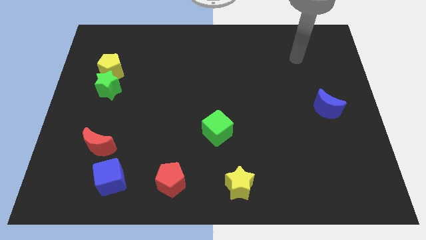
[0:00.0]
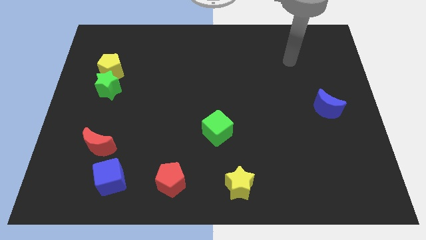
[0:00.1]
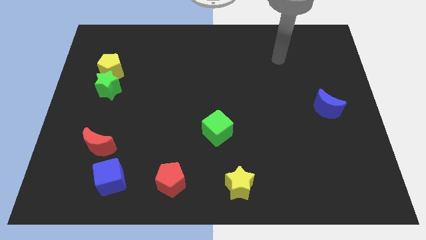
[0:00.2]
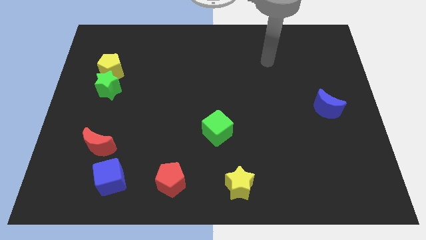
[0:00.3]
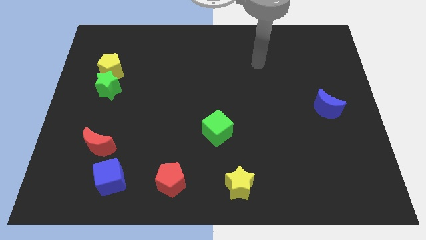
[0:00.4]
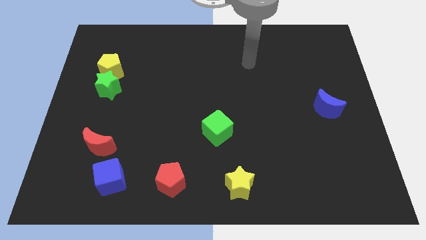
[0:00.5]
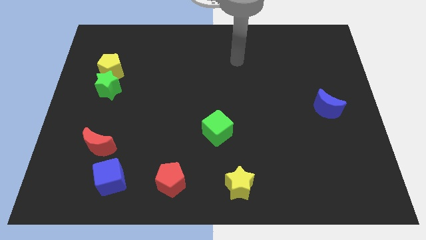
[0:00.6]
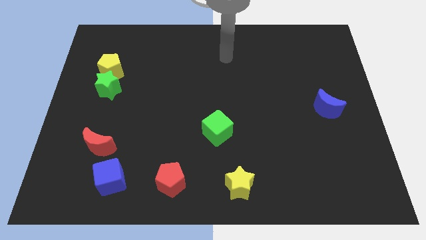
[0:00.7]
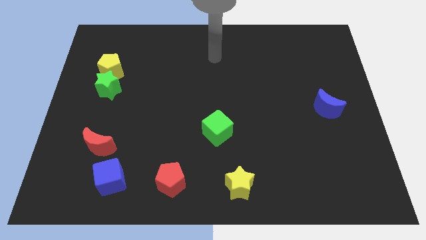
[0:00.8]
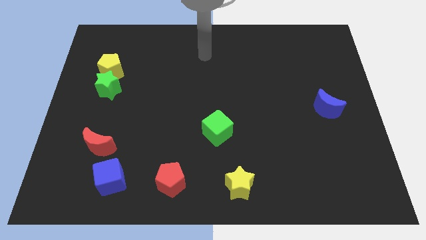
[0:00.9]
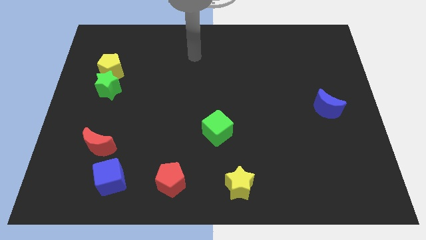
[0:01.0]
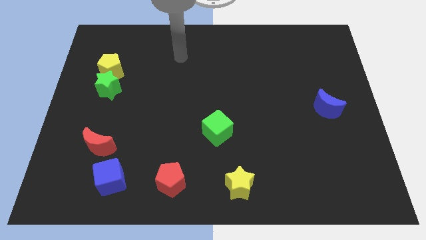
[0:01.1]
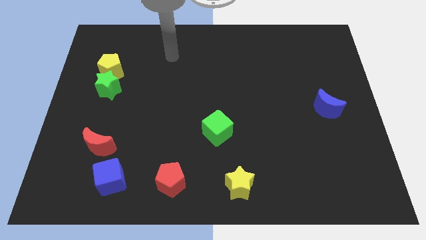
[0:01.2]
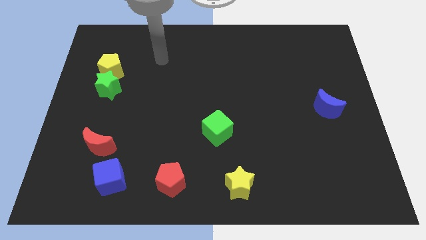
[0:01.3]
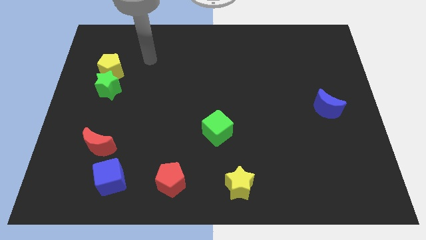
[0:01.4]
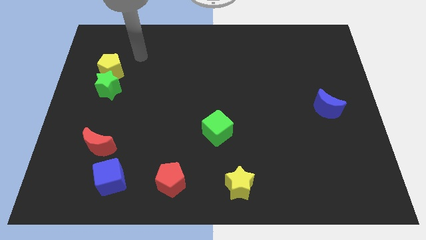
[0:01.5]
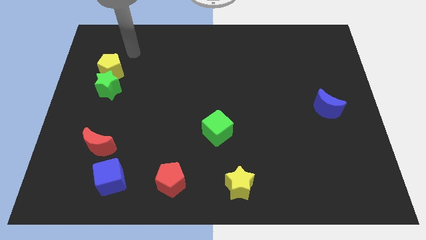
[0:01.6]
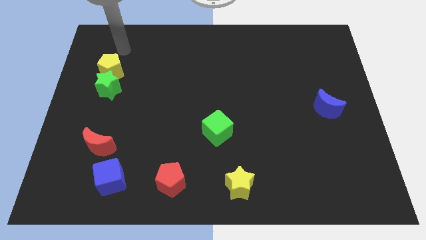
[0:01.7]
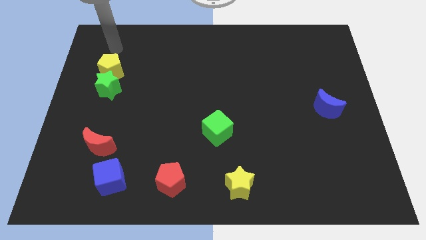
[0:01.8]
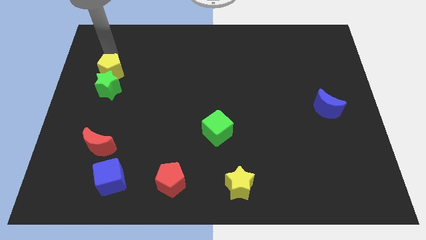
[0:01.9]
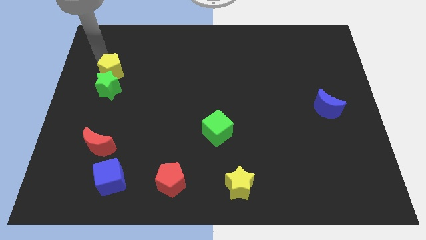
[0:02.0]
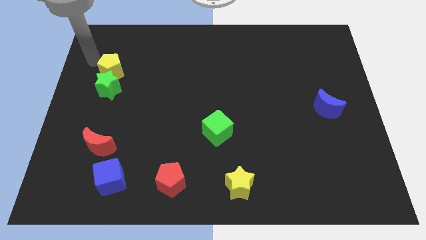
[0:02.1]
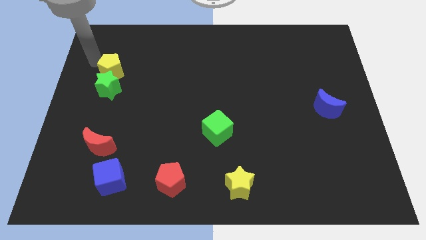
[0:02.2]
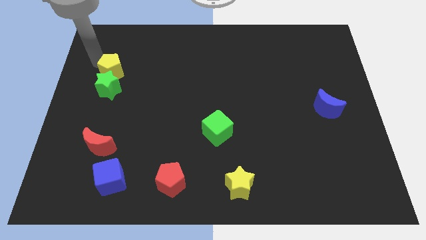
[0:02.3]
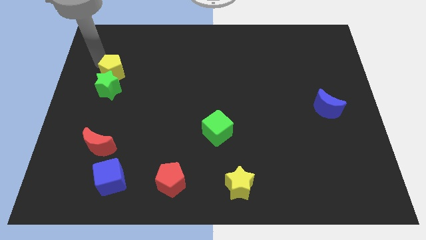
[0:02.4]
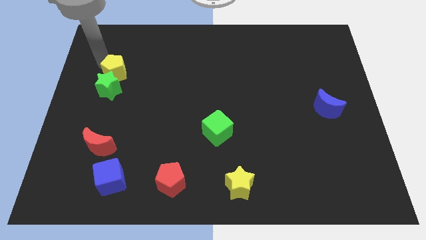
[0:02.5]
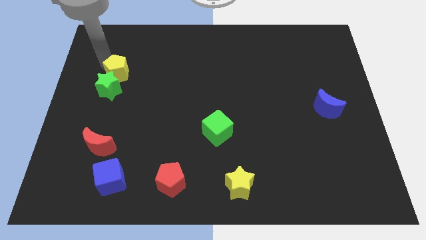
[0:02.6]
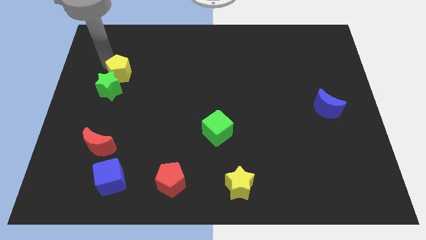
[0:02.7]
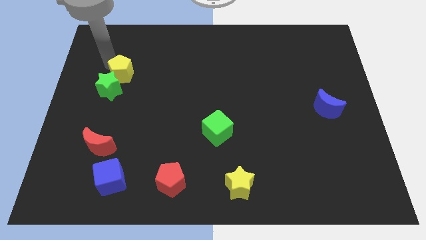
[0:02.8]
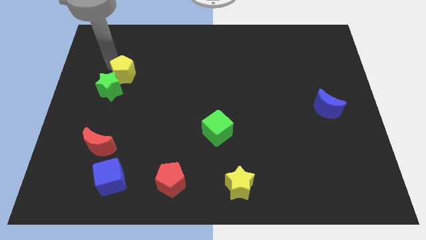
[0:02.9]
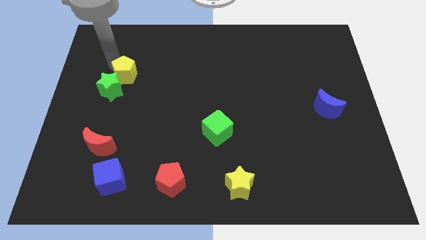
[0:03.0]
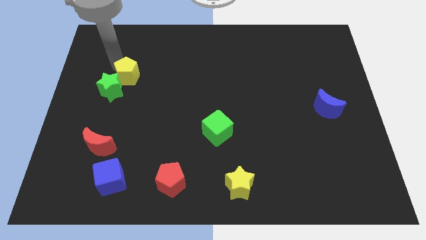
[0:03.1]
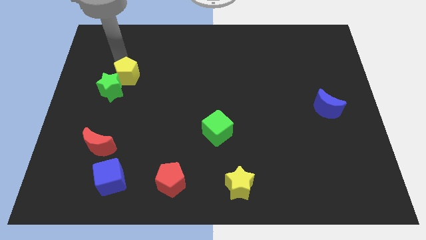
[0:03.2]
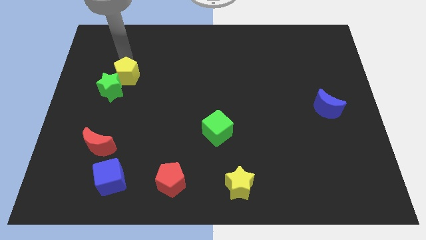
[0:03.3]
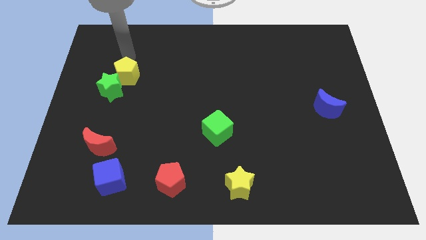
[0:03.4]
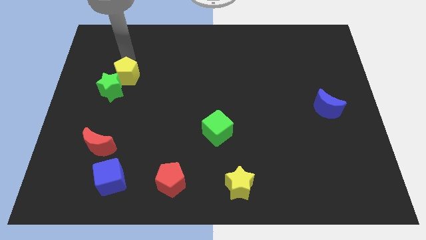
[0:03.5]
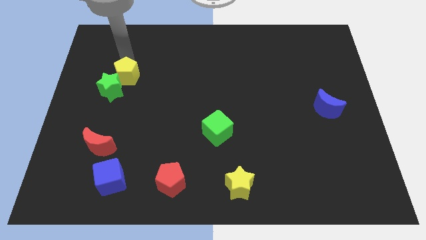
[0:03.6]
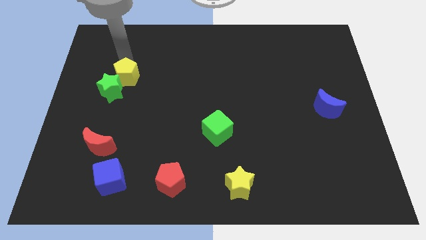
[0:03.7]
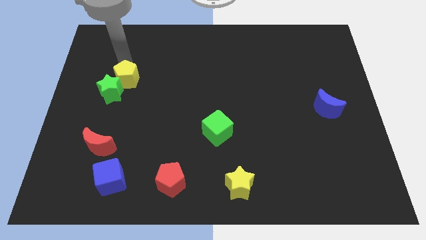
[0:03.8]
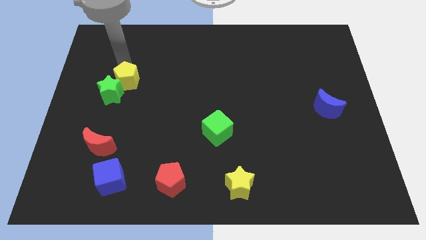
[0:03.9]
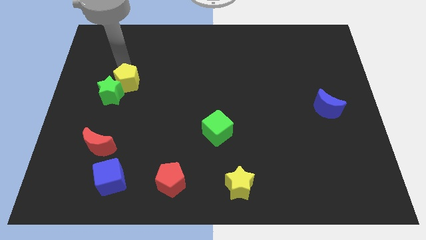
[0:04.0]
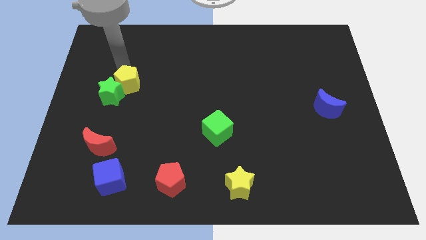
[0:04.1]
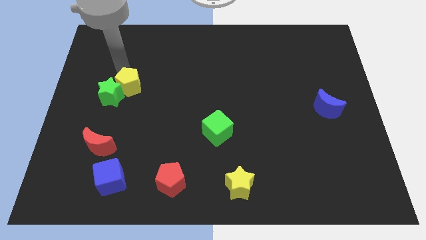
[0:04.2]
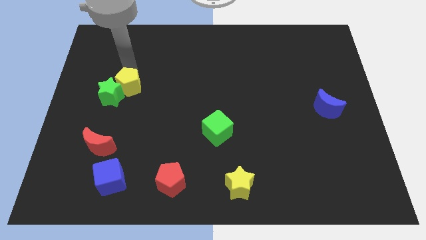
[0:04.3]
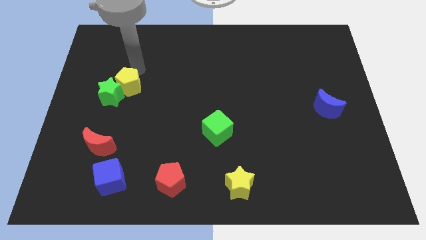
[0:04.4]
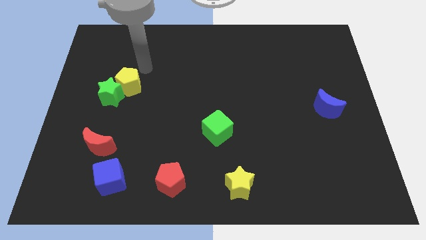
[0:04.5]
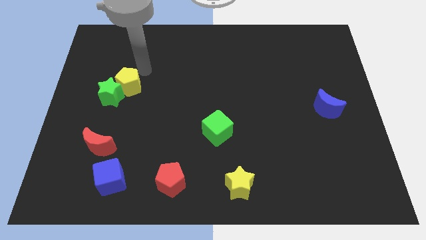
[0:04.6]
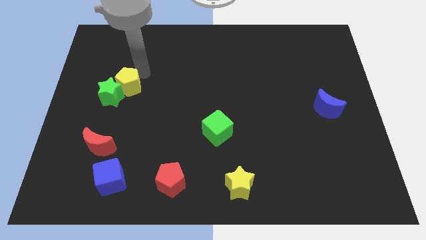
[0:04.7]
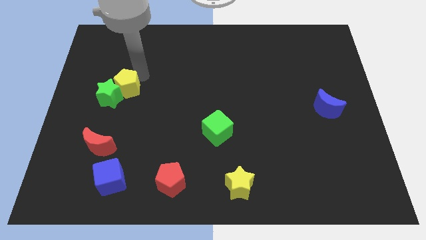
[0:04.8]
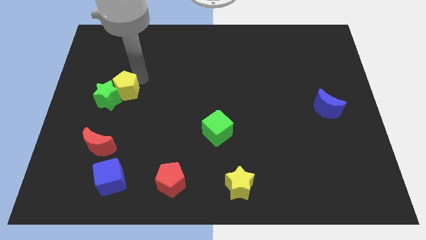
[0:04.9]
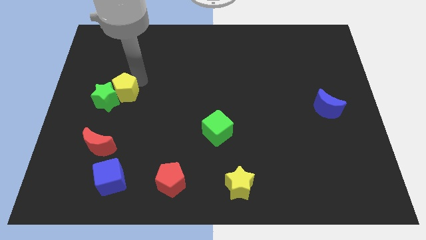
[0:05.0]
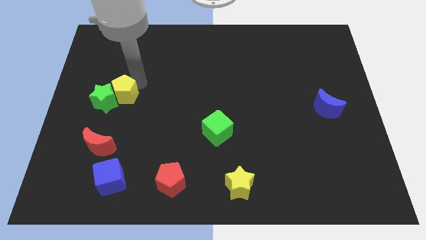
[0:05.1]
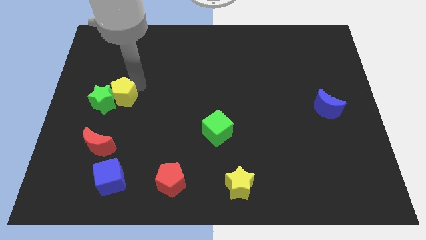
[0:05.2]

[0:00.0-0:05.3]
move the yellow pentagon above the red moon

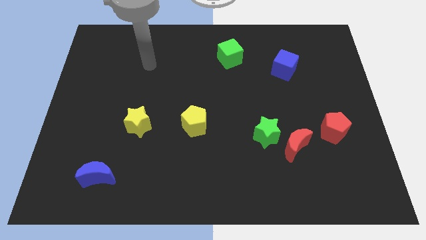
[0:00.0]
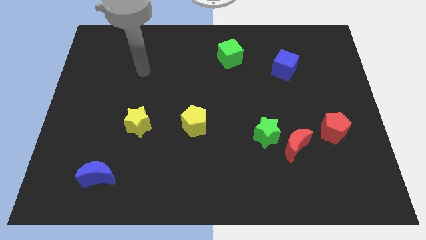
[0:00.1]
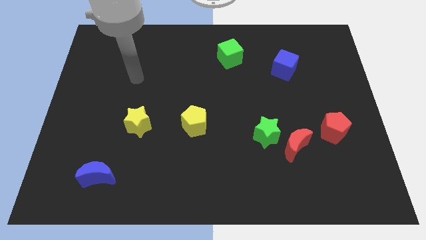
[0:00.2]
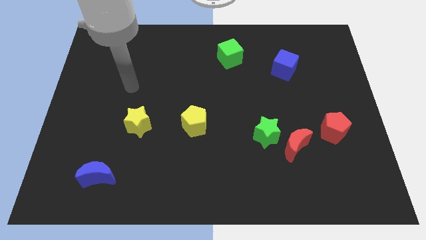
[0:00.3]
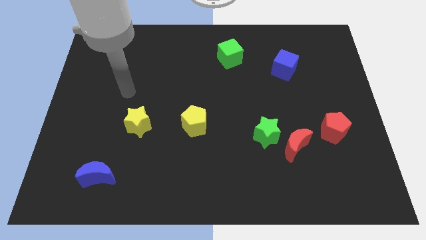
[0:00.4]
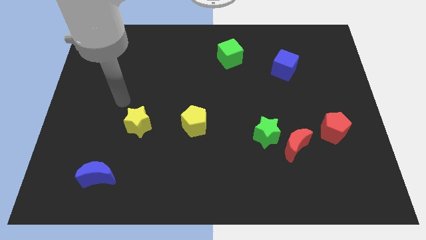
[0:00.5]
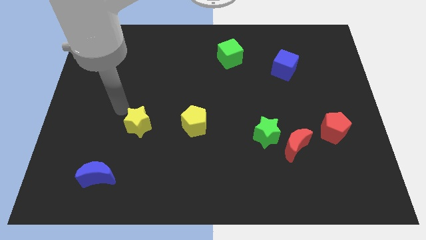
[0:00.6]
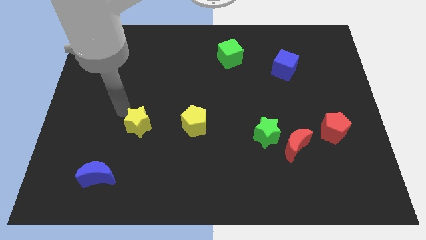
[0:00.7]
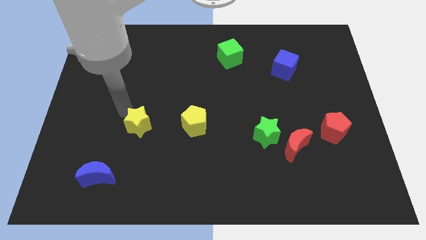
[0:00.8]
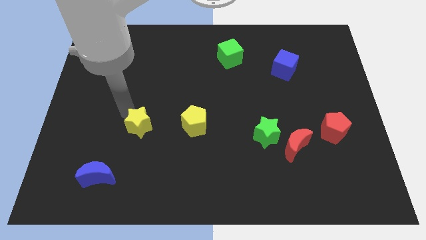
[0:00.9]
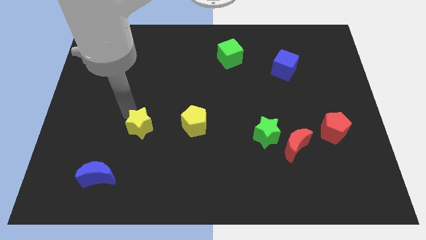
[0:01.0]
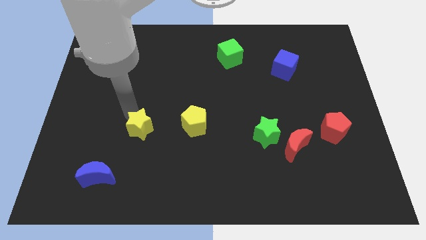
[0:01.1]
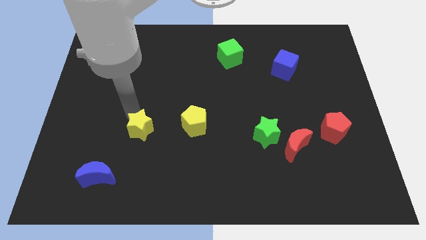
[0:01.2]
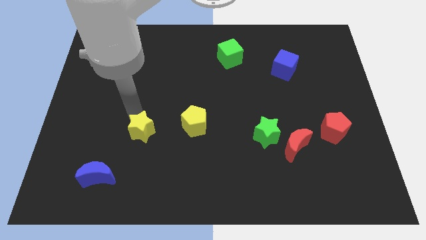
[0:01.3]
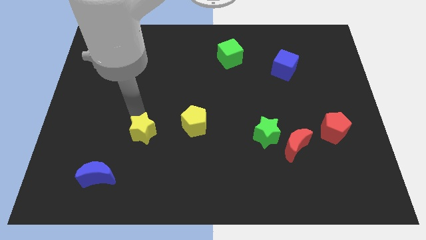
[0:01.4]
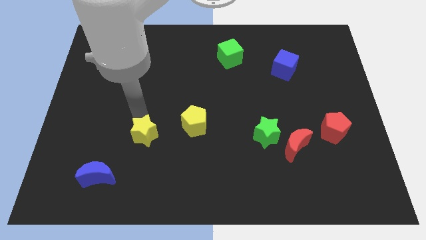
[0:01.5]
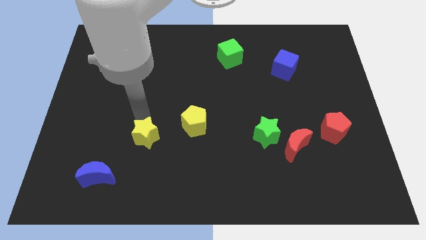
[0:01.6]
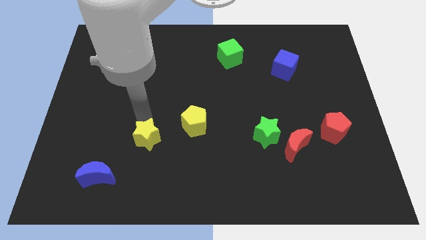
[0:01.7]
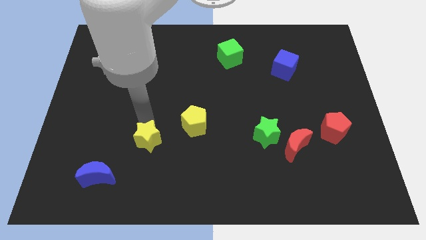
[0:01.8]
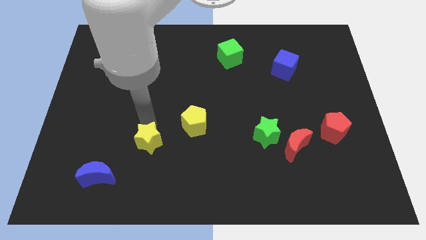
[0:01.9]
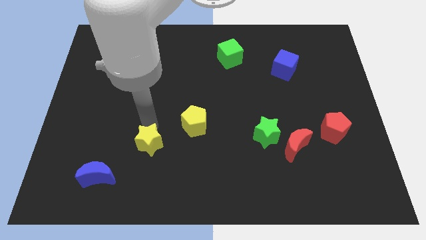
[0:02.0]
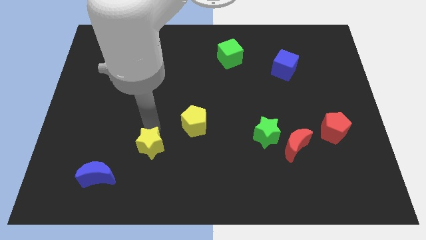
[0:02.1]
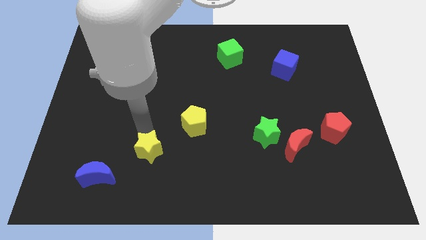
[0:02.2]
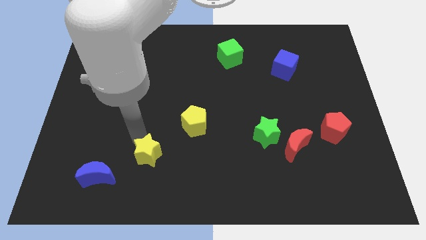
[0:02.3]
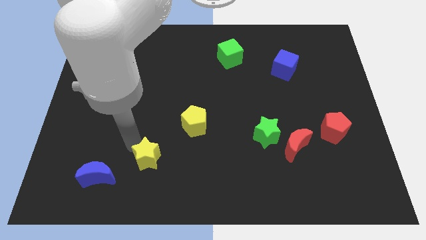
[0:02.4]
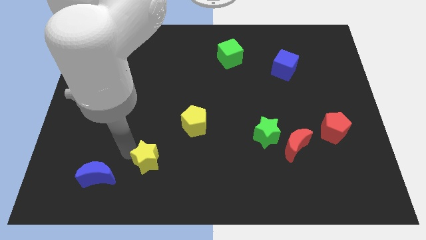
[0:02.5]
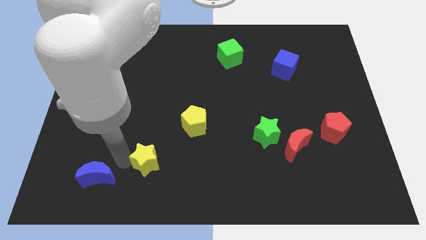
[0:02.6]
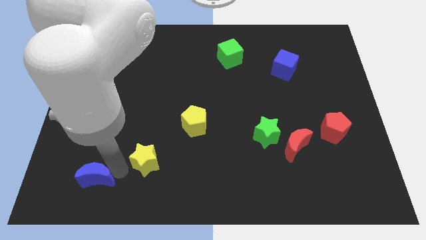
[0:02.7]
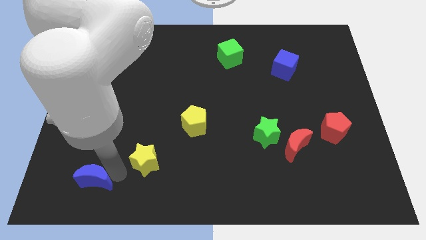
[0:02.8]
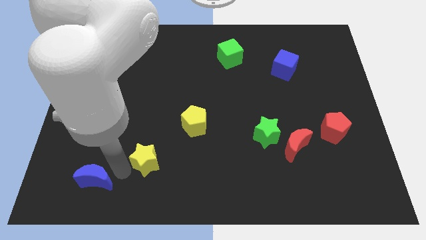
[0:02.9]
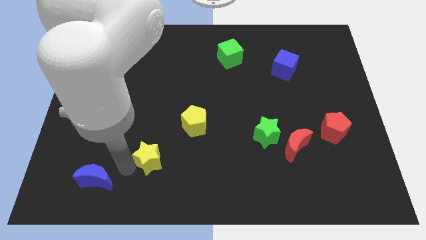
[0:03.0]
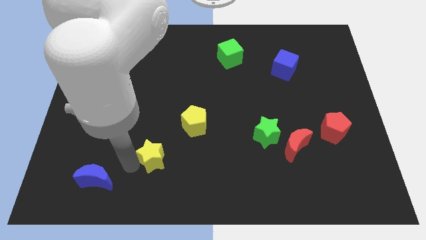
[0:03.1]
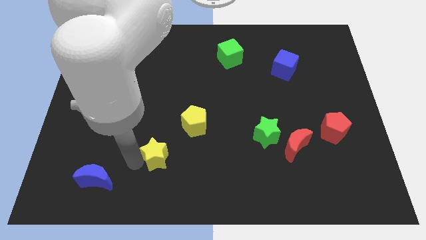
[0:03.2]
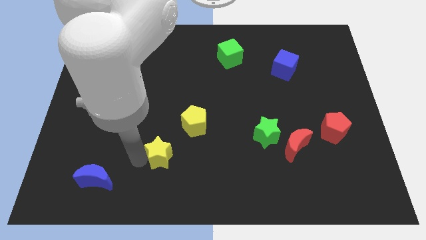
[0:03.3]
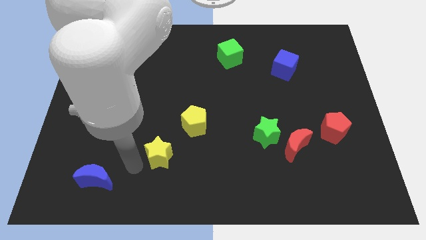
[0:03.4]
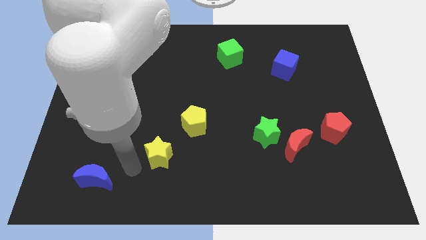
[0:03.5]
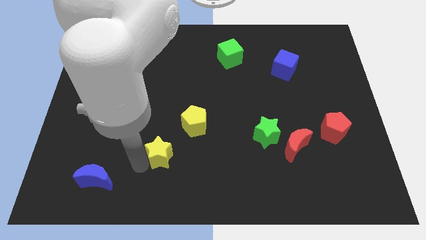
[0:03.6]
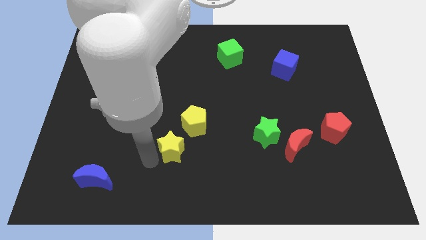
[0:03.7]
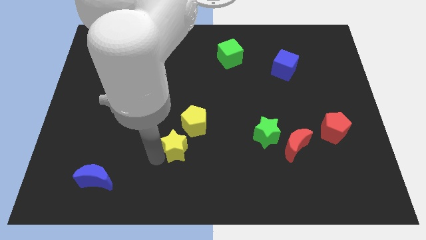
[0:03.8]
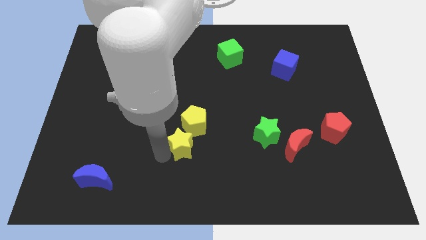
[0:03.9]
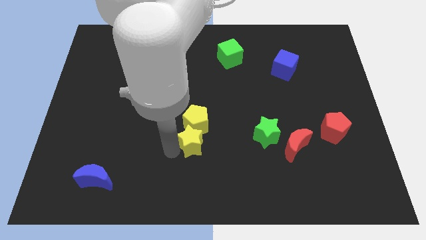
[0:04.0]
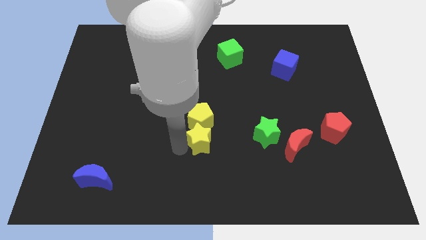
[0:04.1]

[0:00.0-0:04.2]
move the yellow star to the left of the green star
